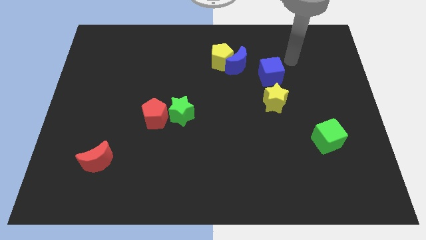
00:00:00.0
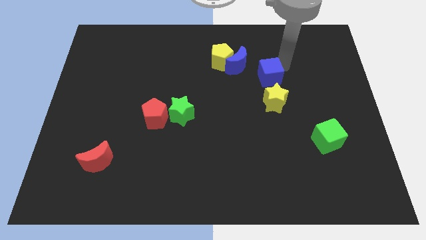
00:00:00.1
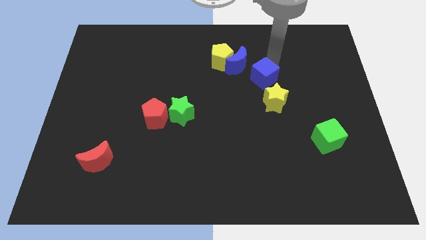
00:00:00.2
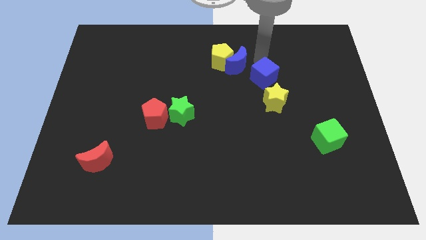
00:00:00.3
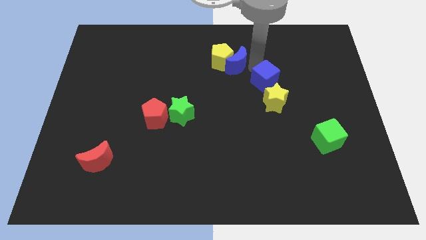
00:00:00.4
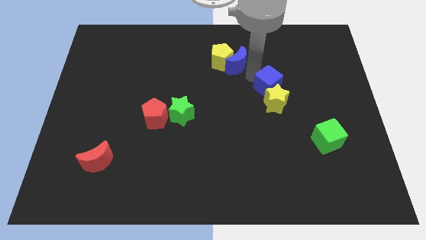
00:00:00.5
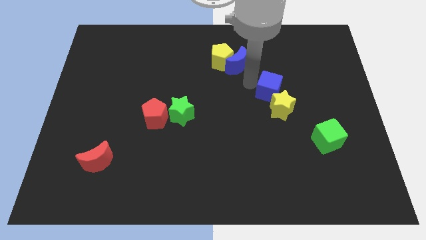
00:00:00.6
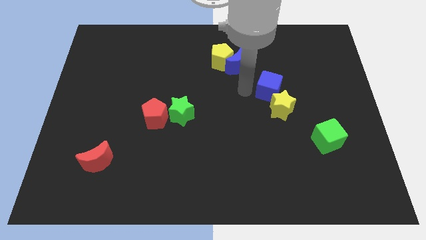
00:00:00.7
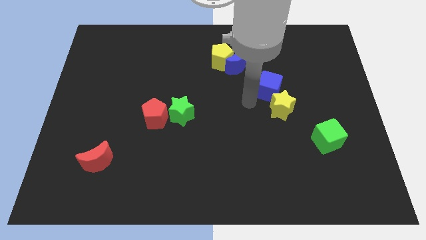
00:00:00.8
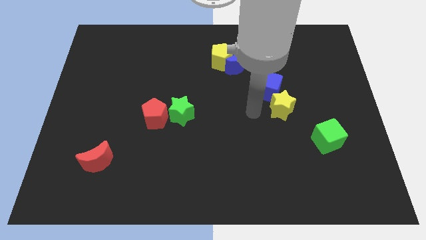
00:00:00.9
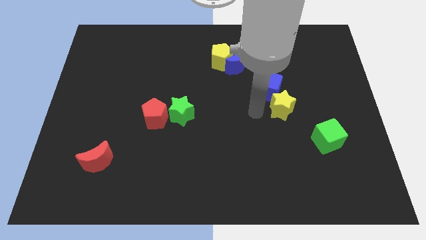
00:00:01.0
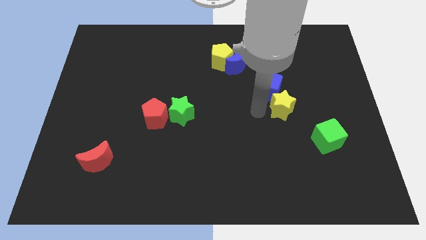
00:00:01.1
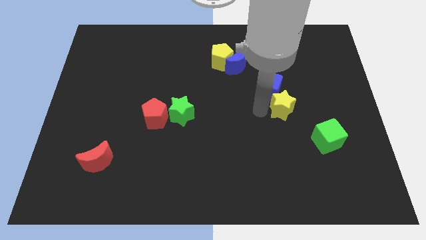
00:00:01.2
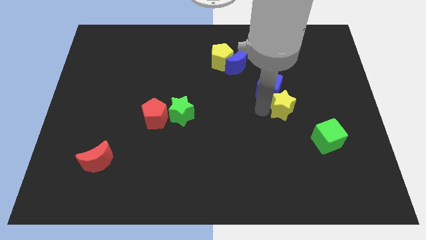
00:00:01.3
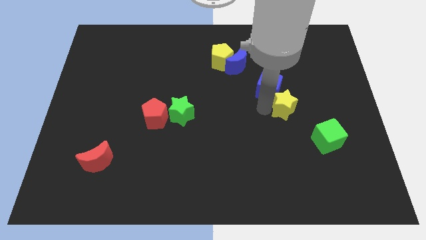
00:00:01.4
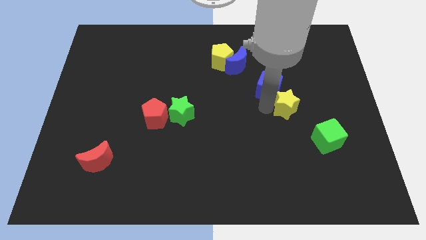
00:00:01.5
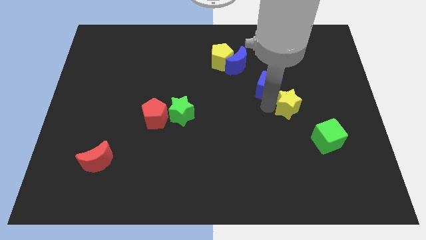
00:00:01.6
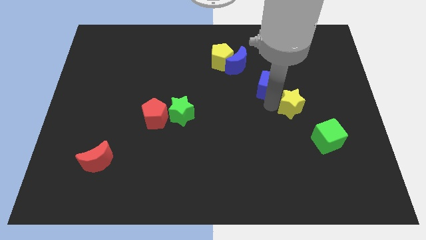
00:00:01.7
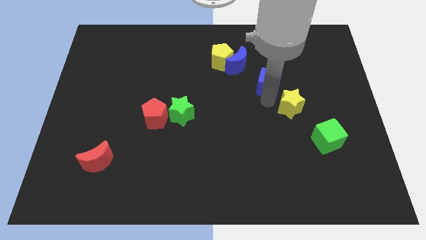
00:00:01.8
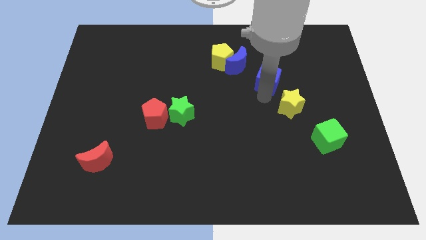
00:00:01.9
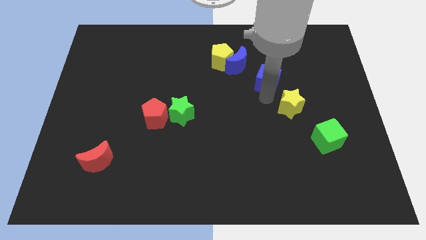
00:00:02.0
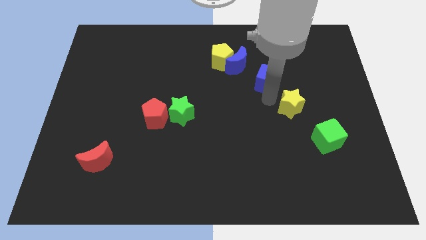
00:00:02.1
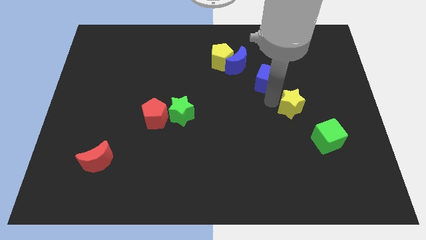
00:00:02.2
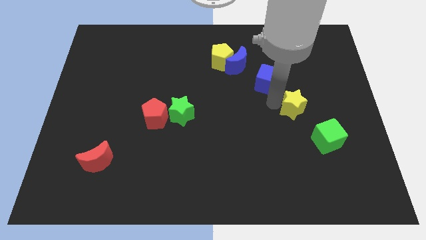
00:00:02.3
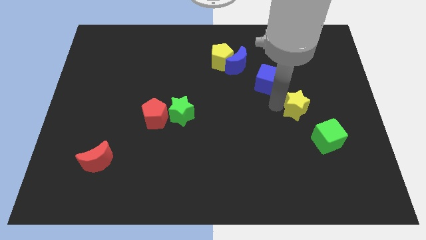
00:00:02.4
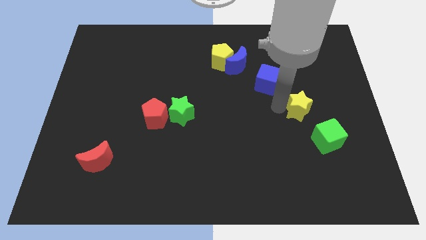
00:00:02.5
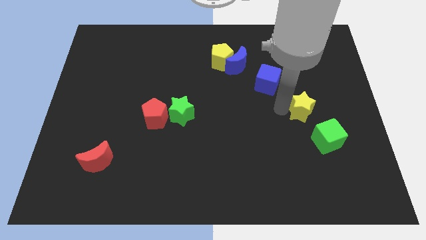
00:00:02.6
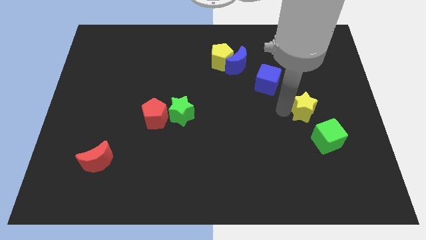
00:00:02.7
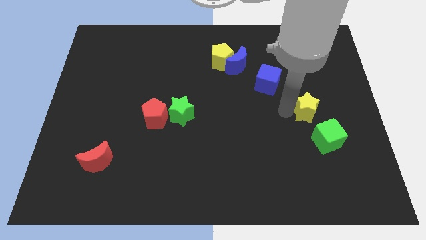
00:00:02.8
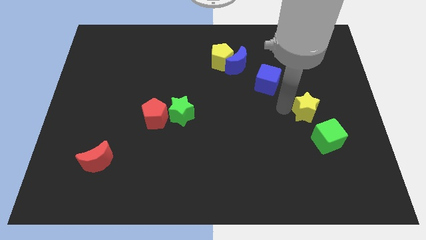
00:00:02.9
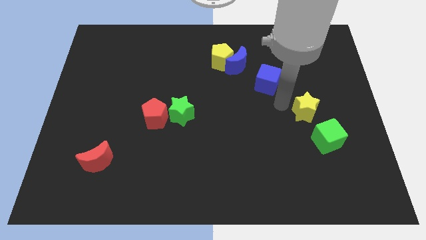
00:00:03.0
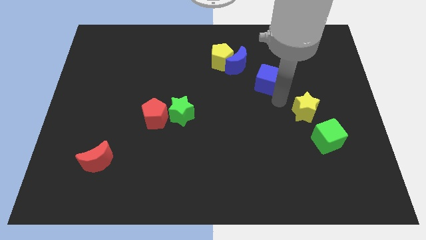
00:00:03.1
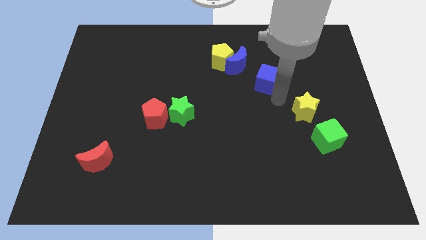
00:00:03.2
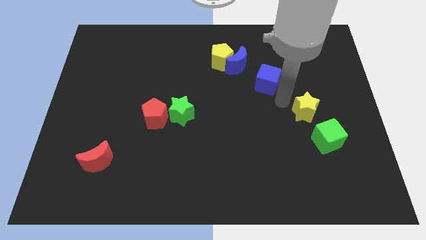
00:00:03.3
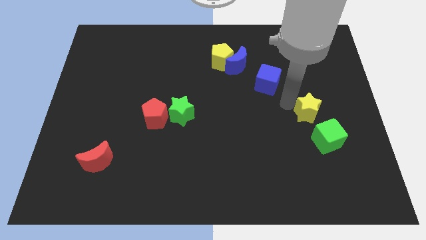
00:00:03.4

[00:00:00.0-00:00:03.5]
slightly move the yellow star downwards and then right

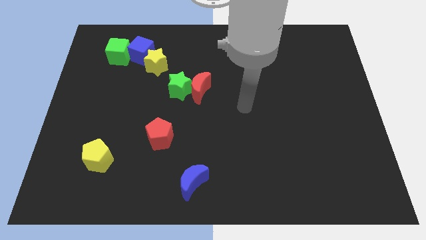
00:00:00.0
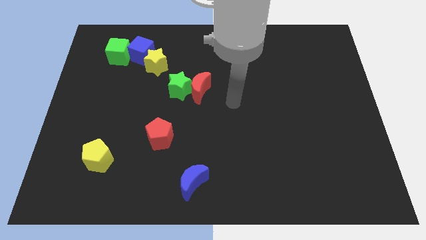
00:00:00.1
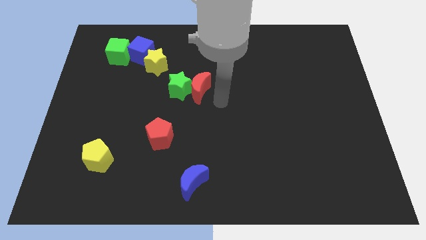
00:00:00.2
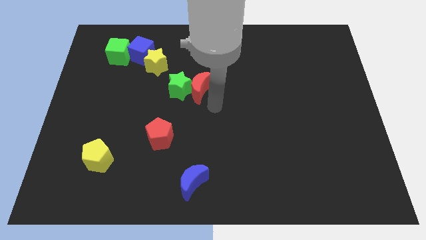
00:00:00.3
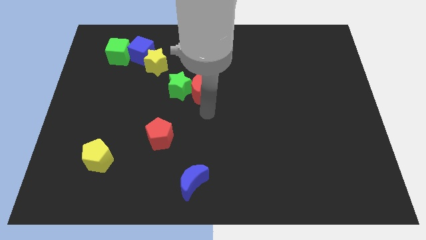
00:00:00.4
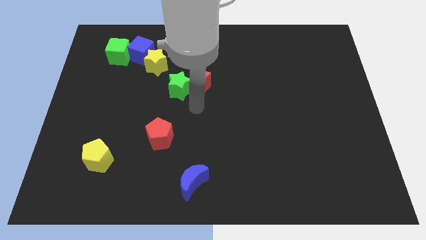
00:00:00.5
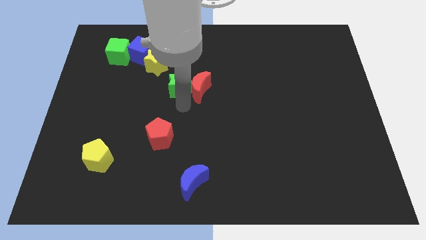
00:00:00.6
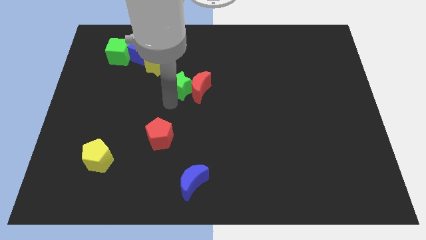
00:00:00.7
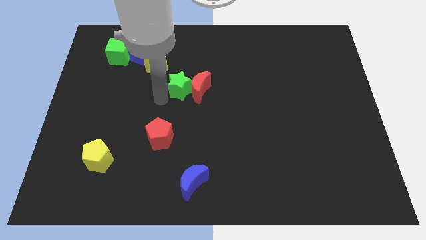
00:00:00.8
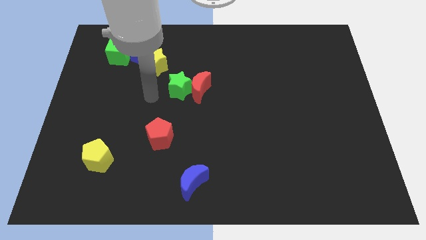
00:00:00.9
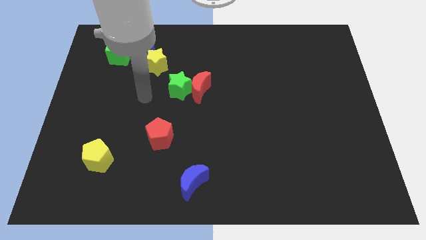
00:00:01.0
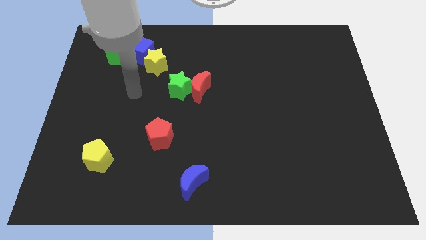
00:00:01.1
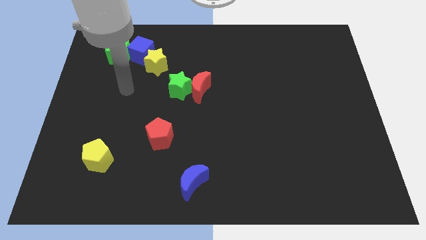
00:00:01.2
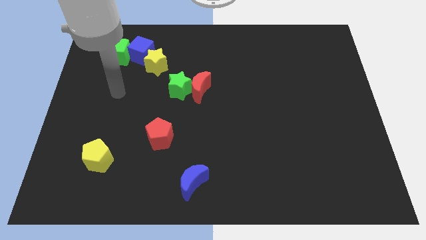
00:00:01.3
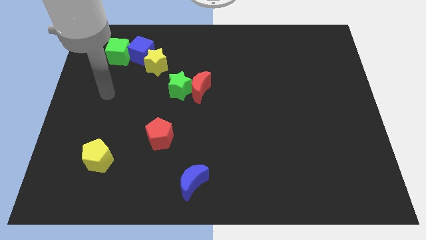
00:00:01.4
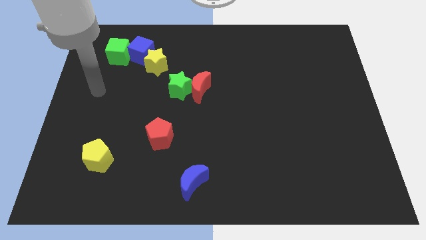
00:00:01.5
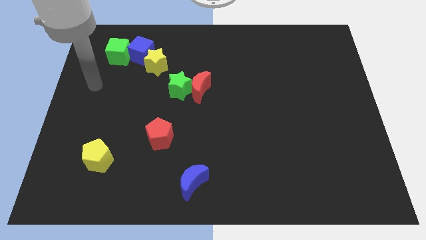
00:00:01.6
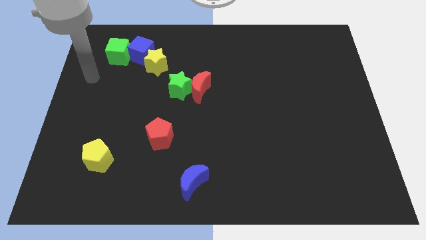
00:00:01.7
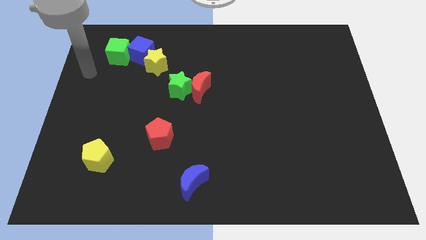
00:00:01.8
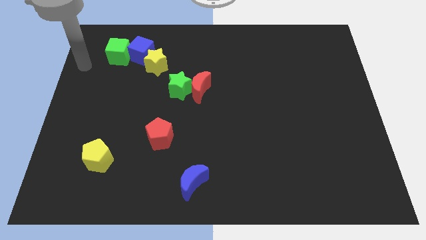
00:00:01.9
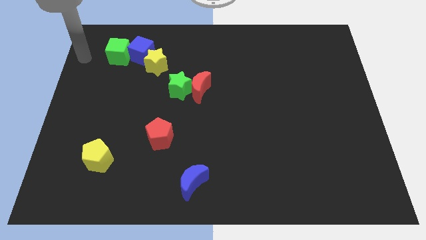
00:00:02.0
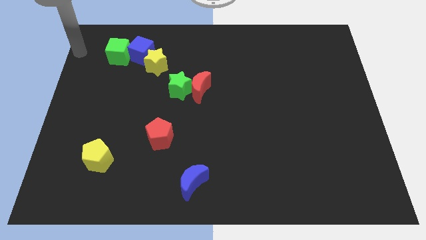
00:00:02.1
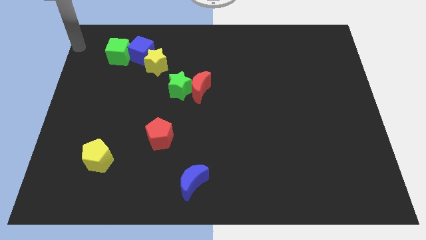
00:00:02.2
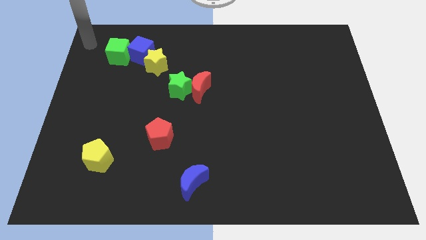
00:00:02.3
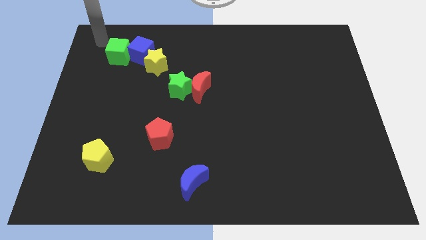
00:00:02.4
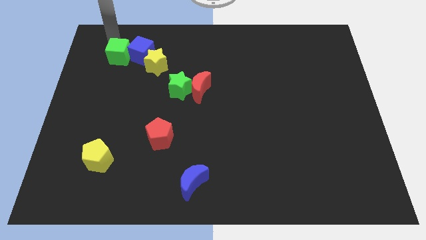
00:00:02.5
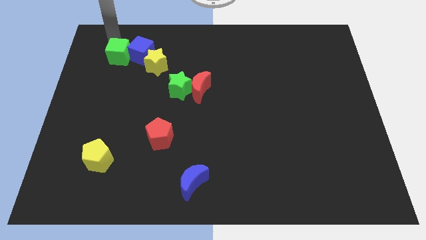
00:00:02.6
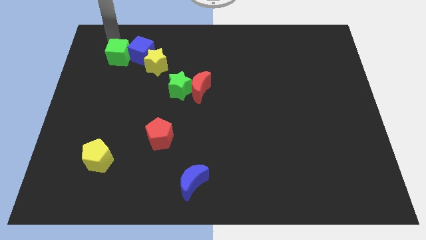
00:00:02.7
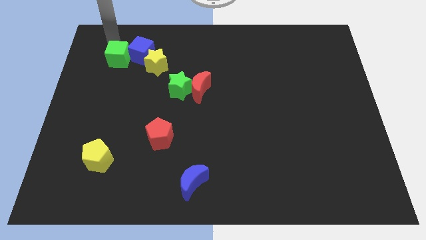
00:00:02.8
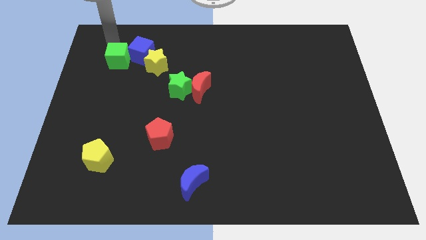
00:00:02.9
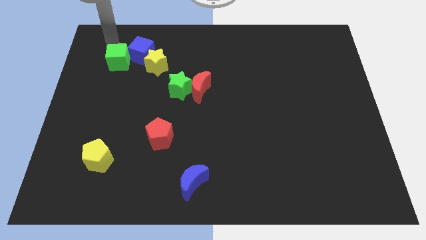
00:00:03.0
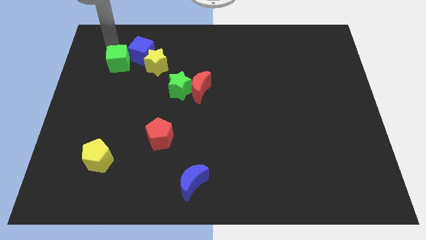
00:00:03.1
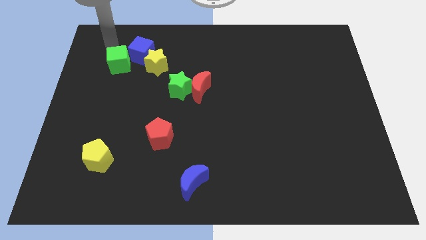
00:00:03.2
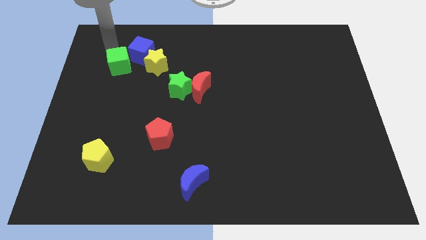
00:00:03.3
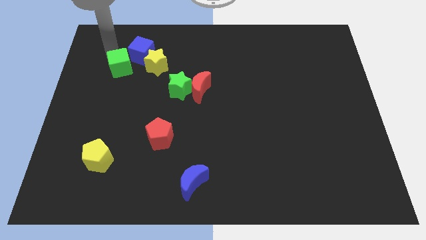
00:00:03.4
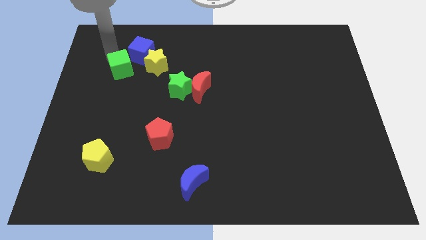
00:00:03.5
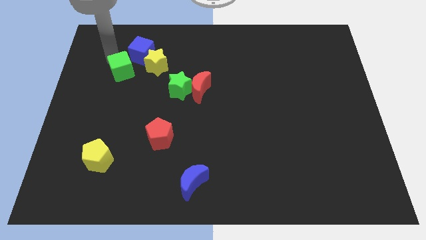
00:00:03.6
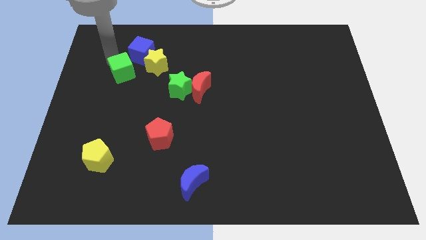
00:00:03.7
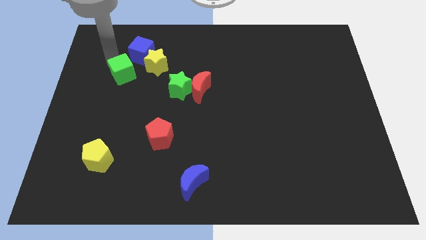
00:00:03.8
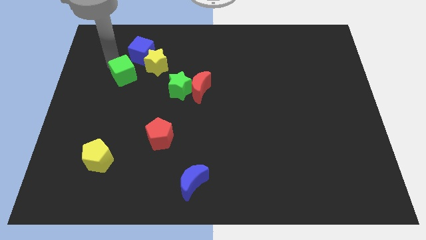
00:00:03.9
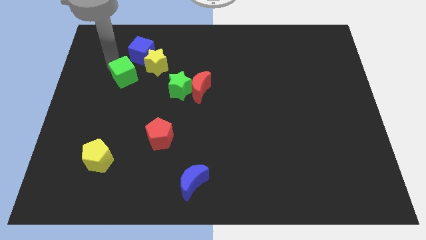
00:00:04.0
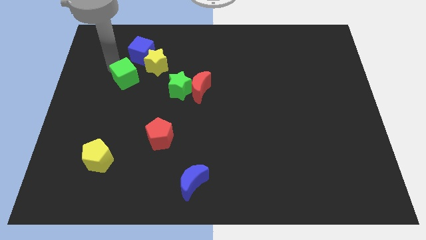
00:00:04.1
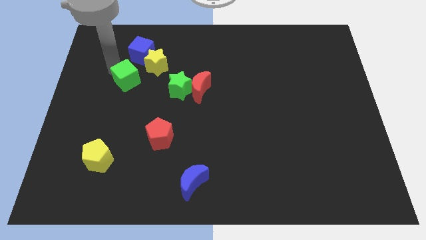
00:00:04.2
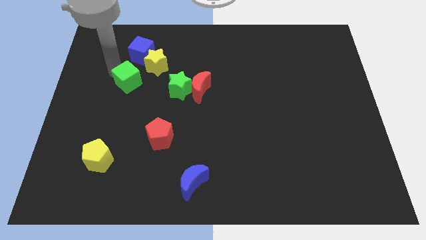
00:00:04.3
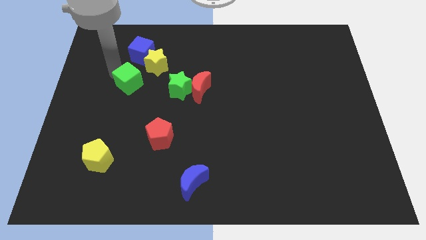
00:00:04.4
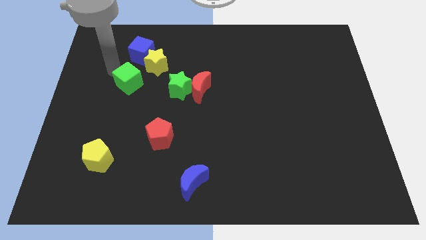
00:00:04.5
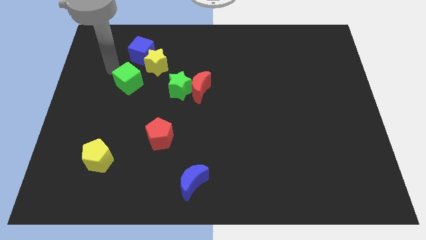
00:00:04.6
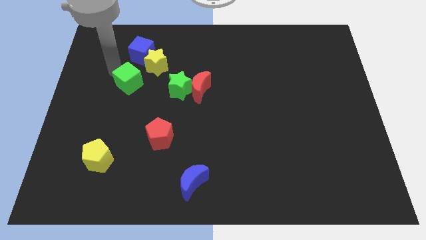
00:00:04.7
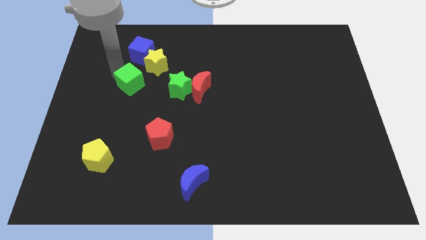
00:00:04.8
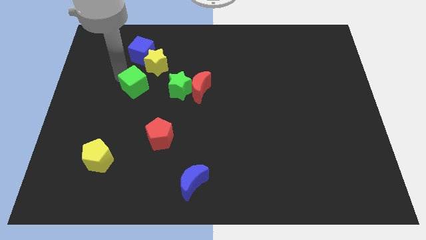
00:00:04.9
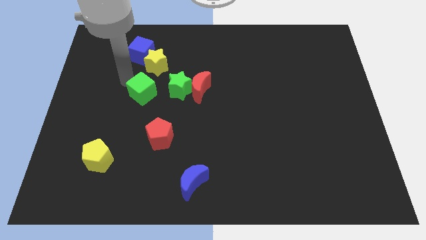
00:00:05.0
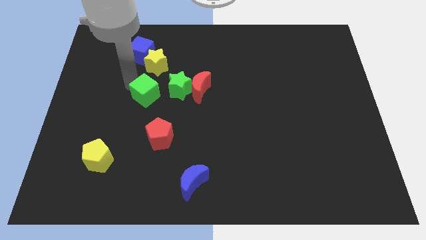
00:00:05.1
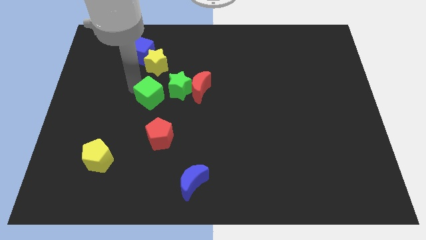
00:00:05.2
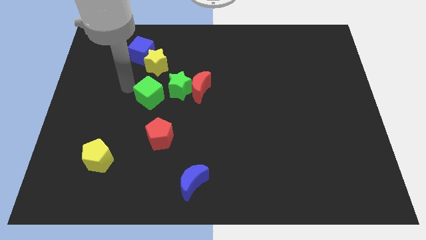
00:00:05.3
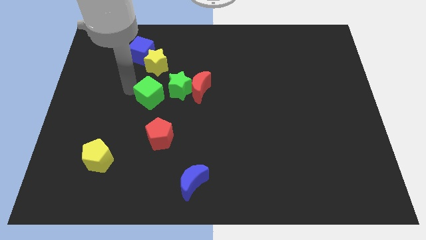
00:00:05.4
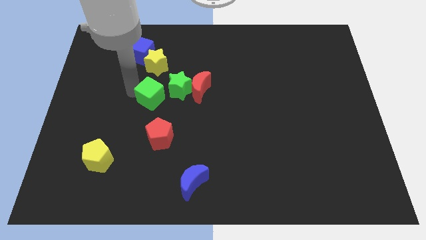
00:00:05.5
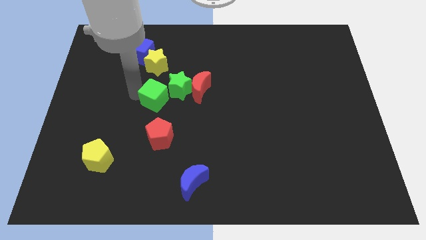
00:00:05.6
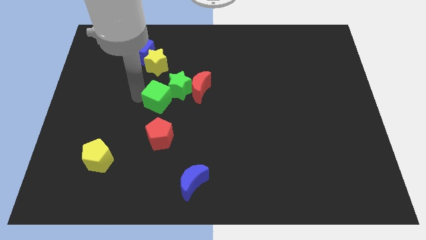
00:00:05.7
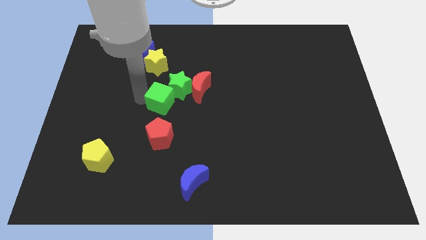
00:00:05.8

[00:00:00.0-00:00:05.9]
push the green cube diagonally down and right
